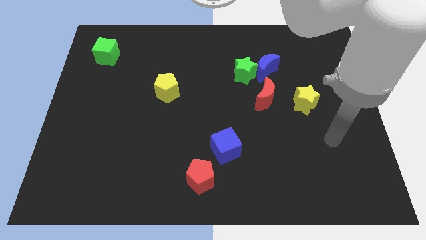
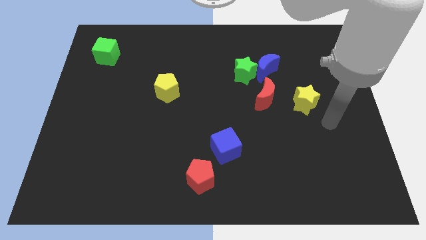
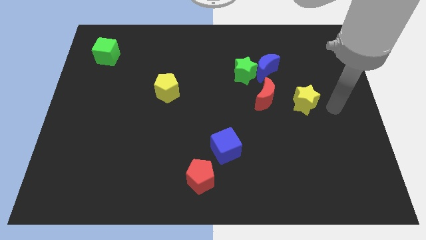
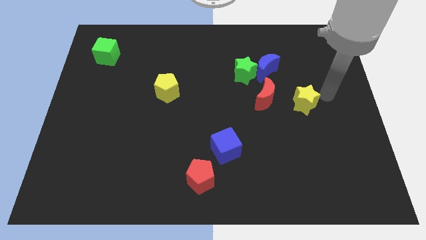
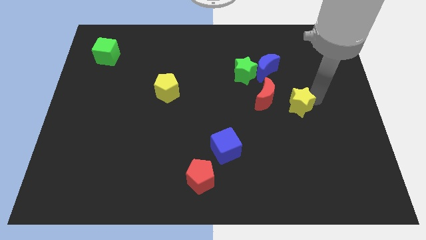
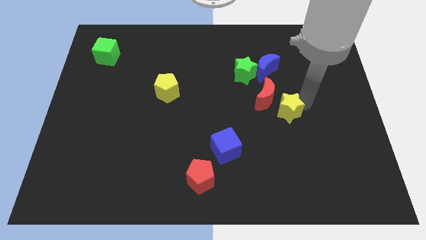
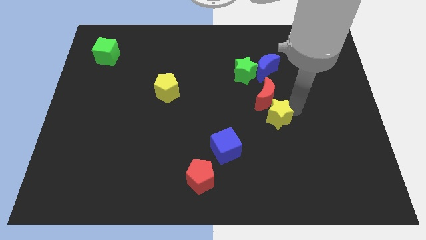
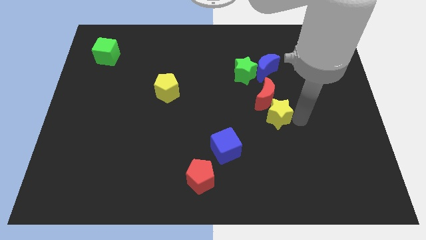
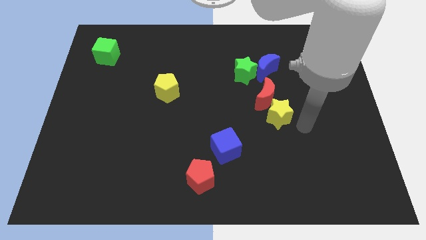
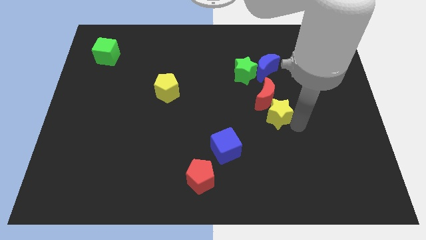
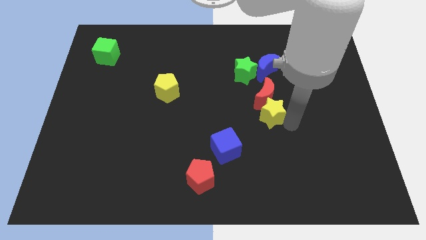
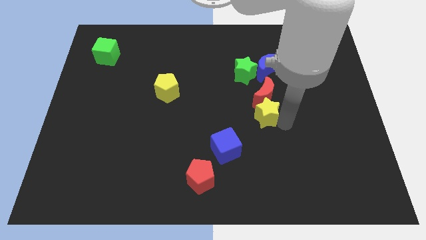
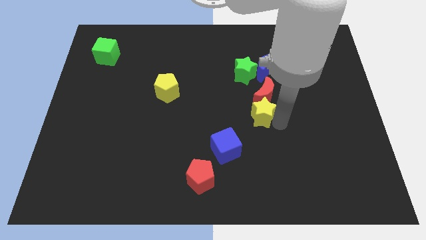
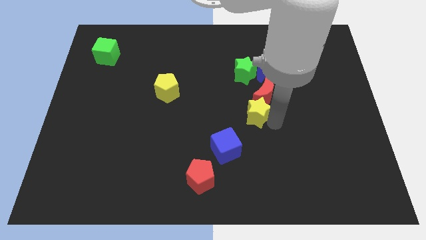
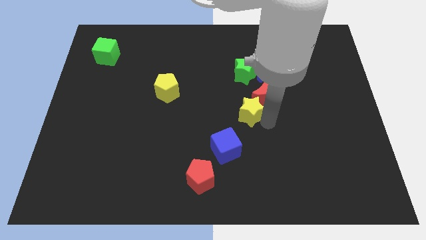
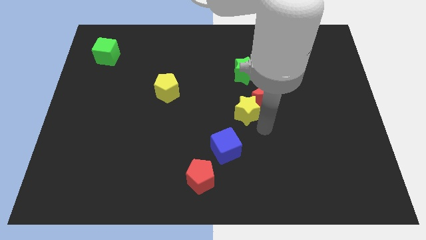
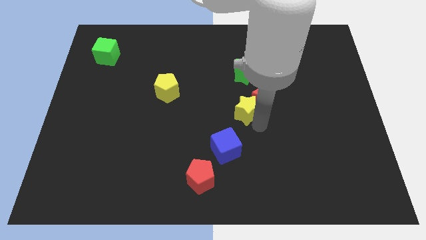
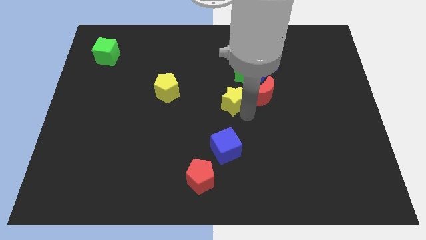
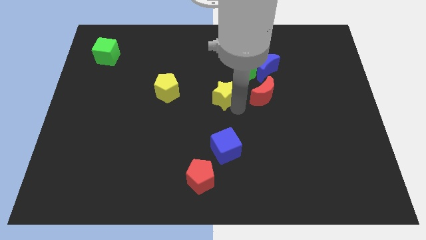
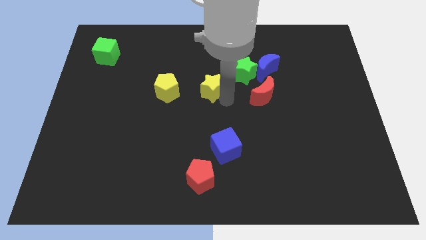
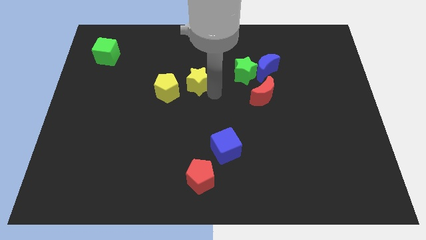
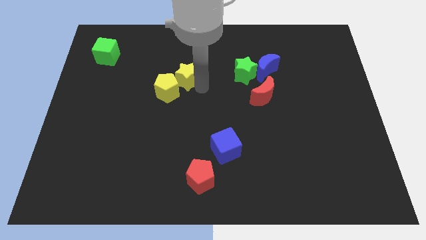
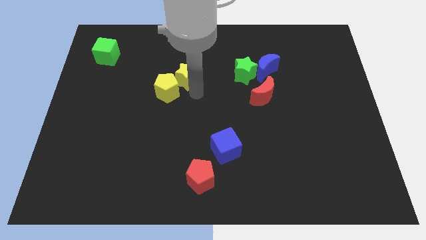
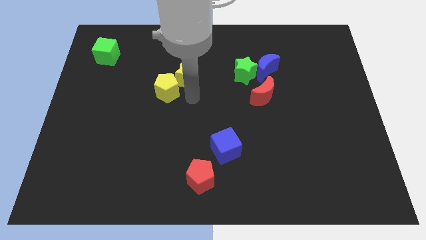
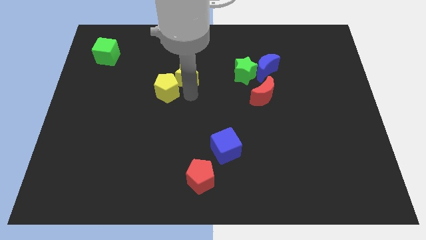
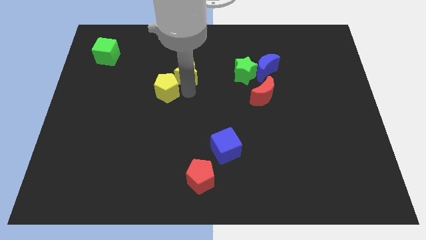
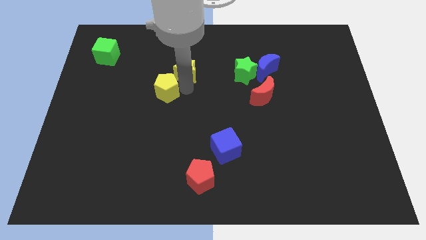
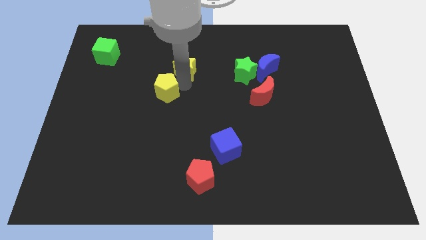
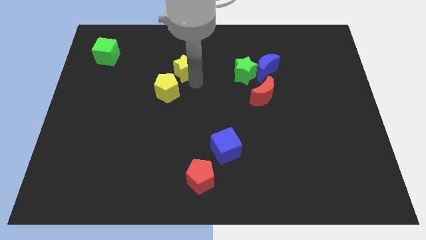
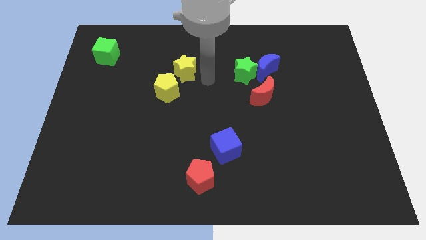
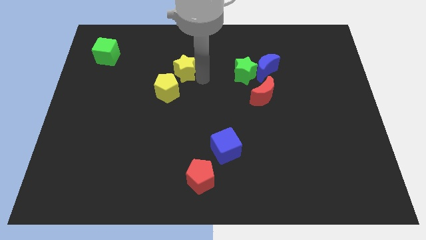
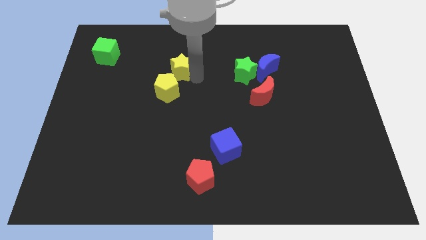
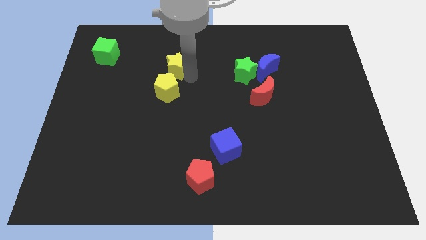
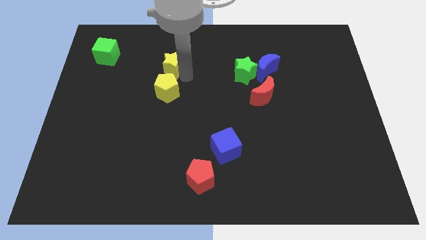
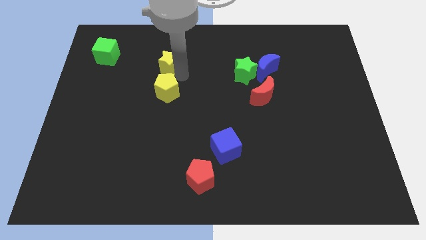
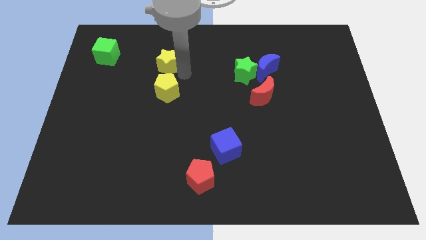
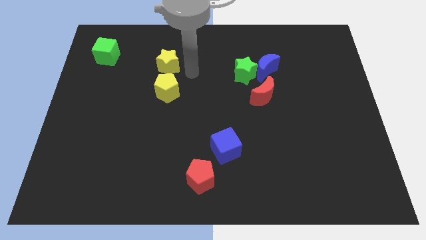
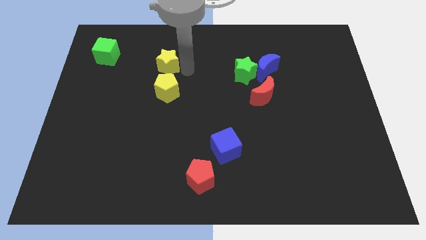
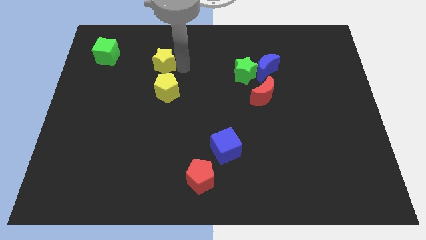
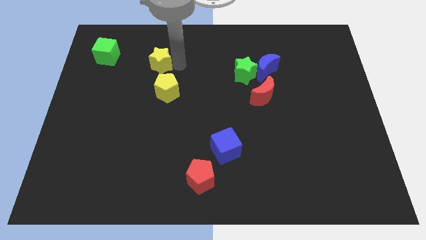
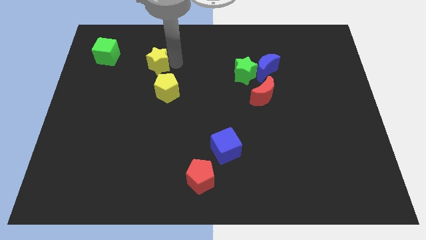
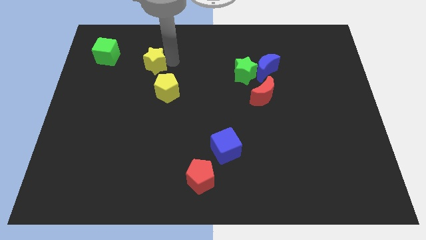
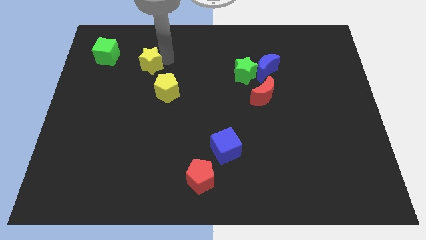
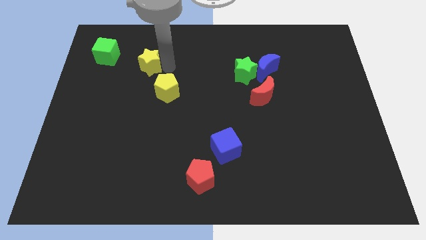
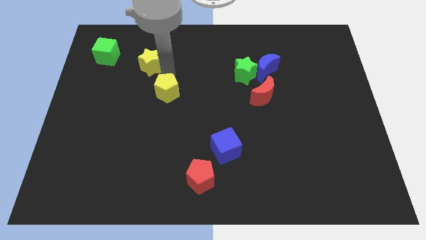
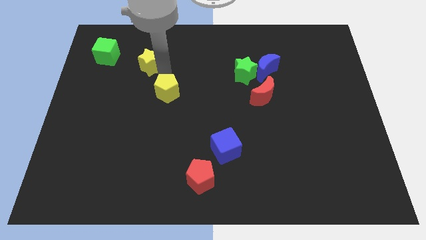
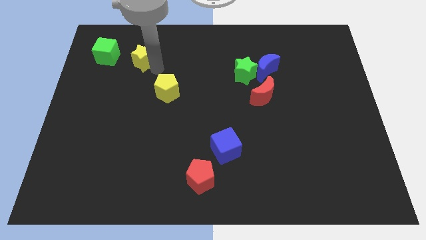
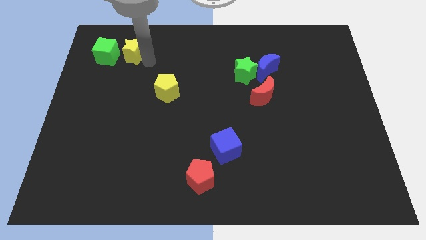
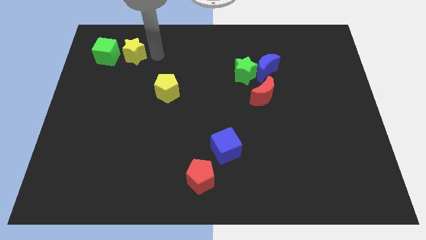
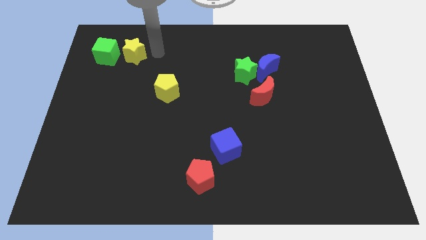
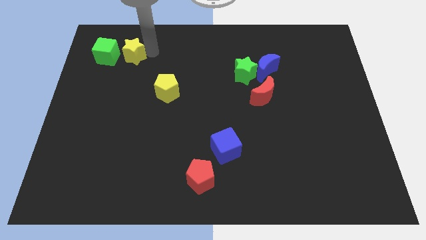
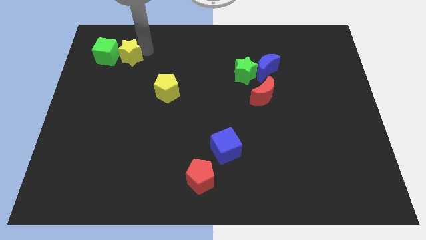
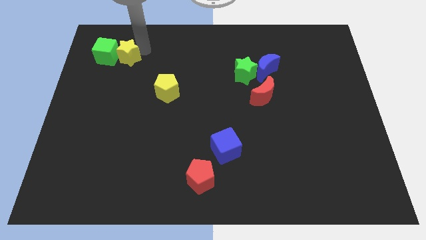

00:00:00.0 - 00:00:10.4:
put the yellow star to the green cube

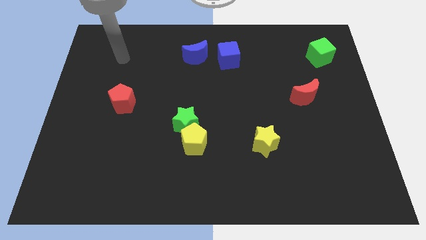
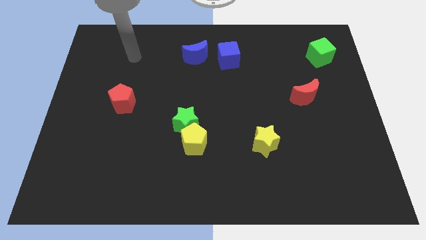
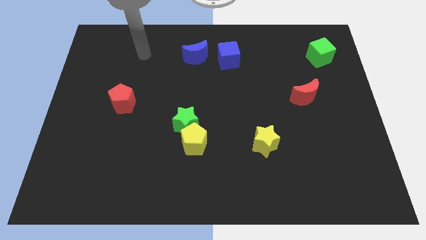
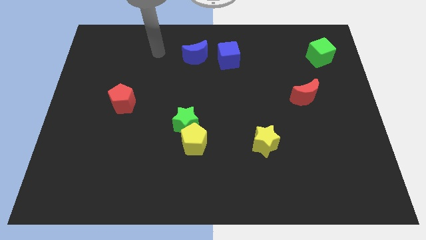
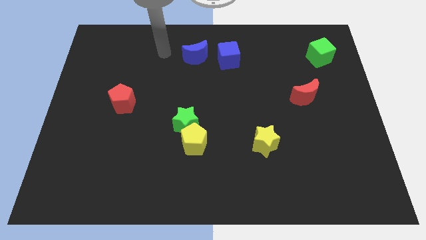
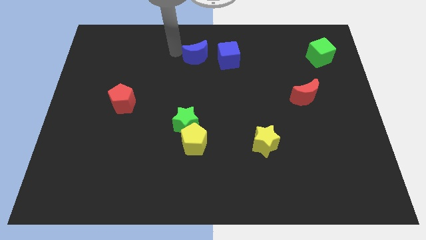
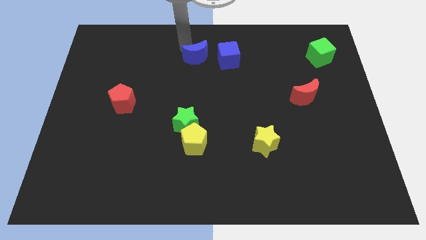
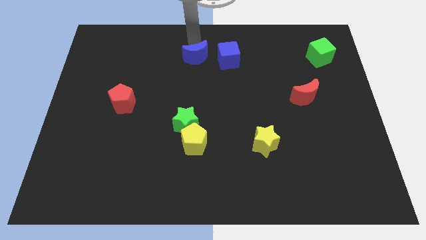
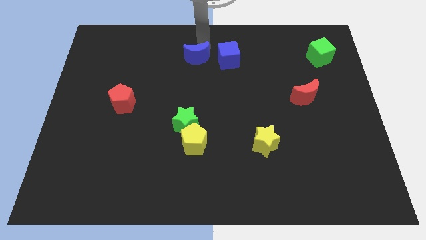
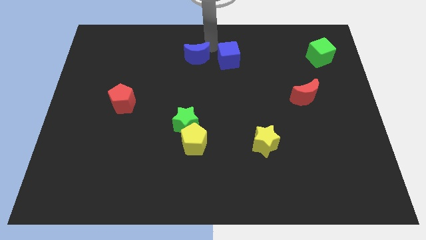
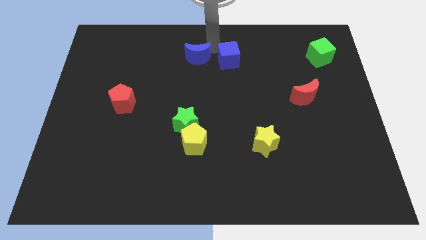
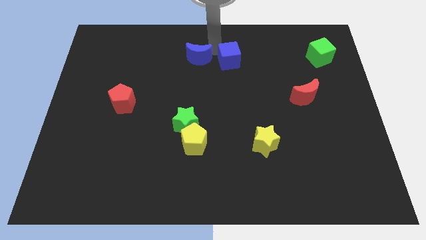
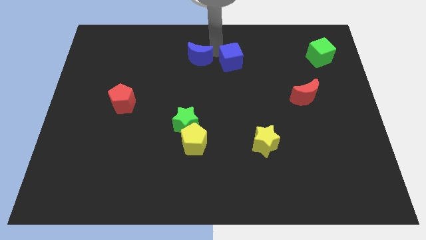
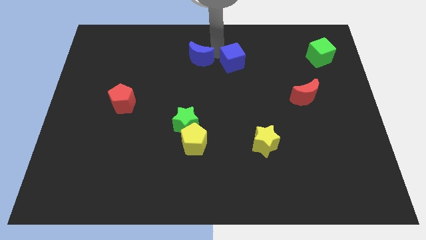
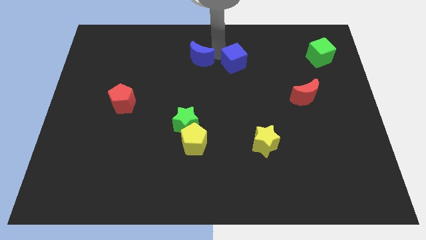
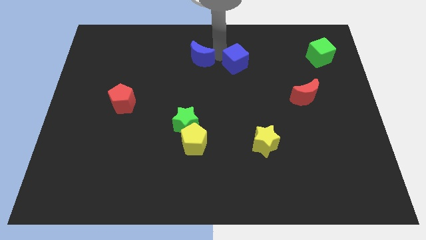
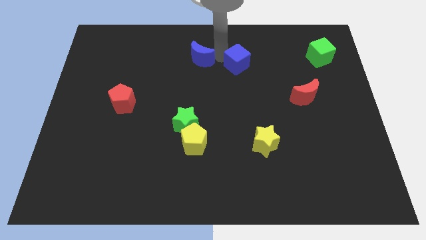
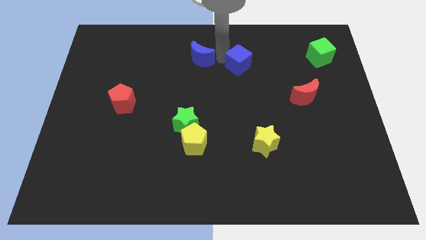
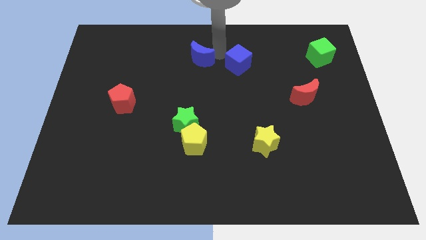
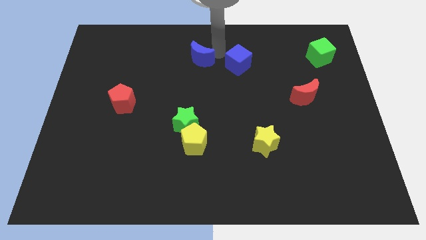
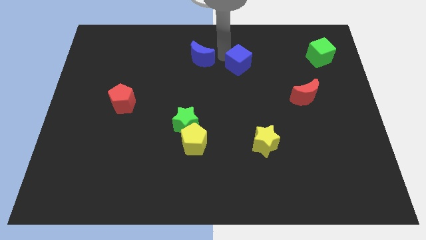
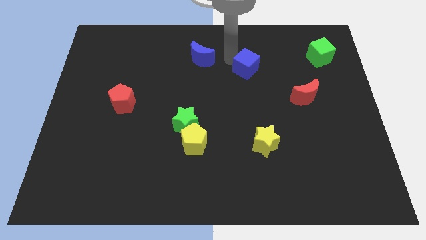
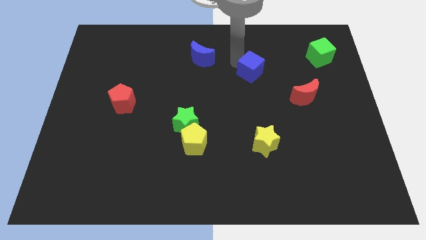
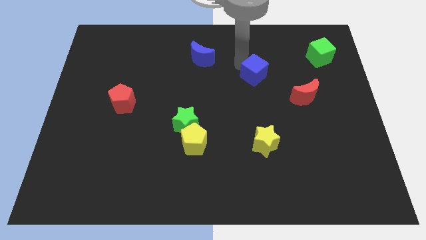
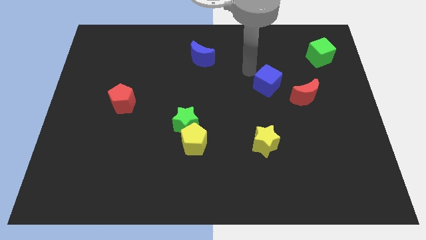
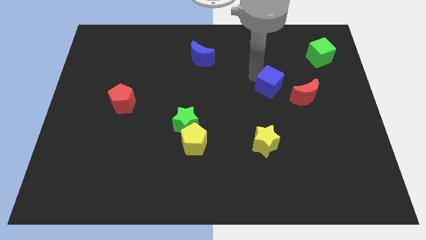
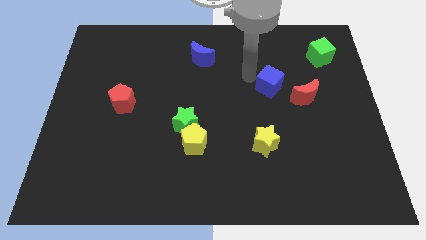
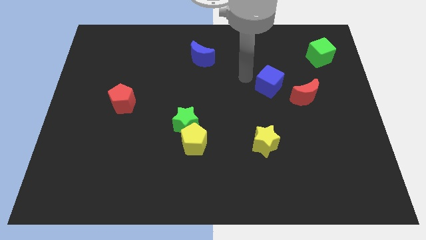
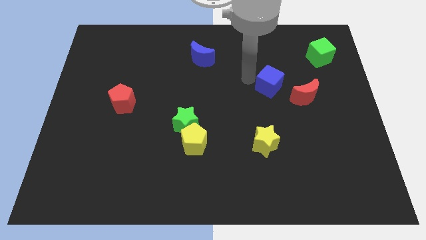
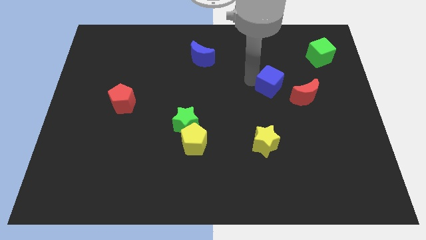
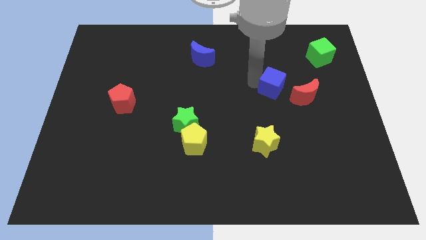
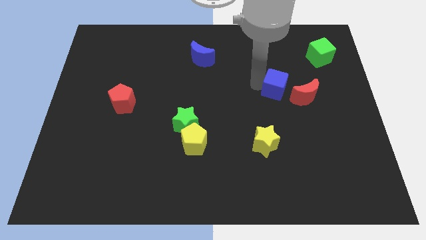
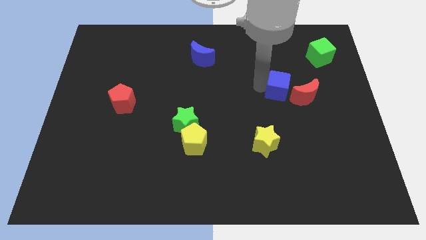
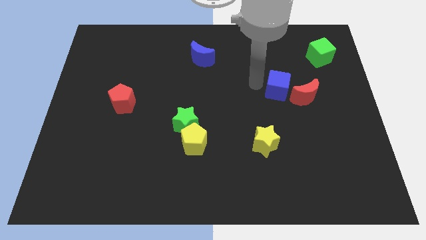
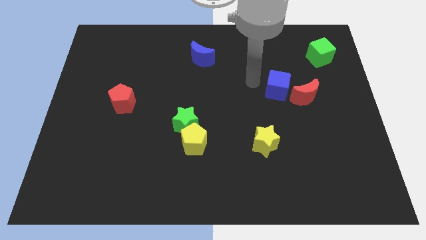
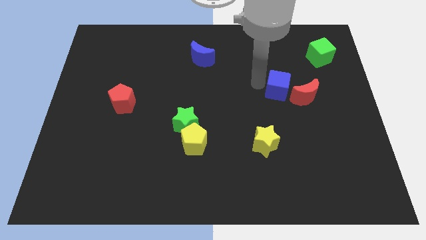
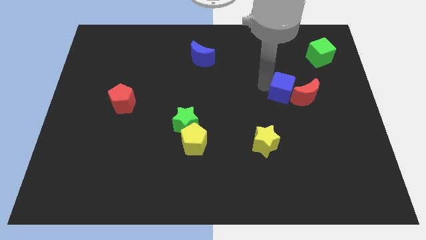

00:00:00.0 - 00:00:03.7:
move the blue cube next to the red moon
